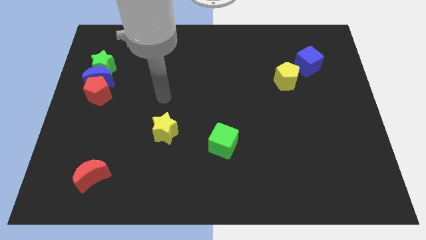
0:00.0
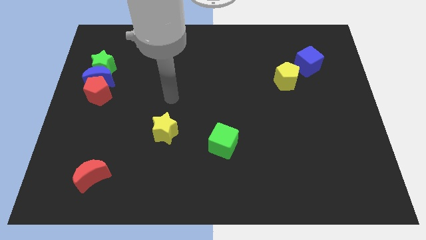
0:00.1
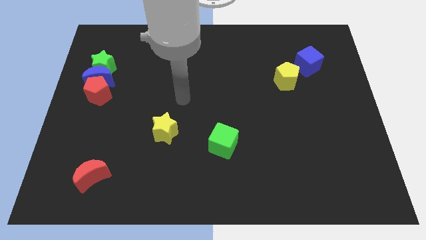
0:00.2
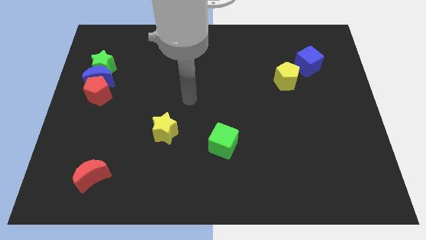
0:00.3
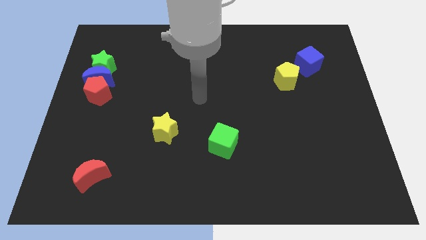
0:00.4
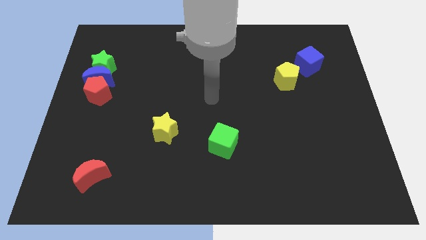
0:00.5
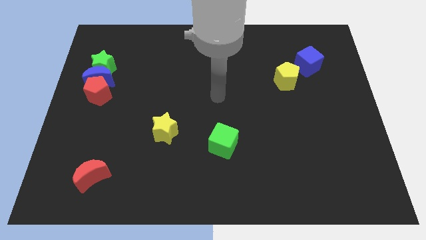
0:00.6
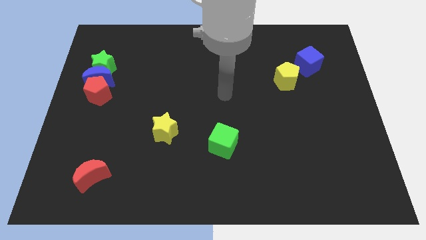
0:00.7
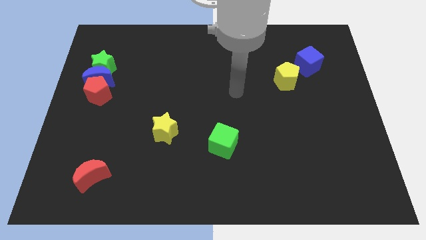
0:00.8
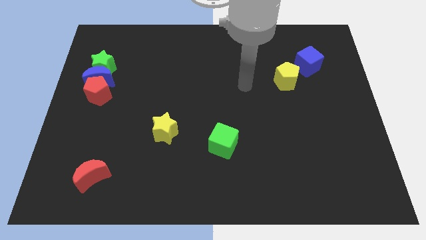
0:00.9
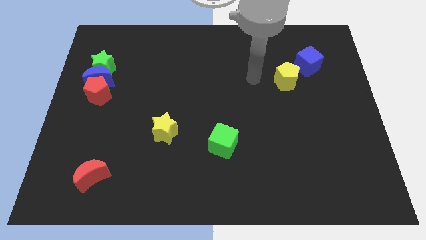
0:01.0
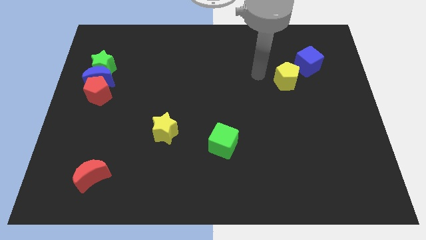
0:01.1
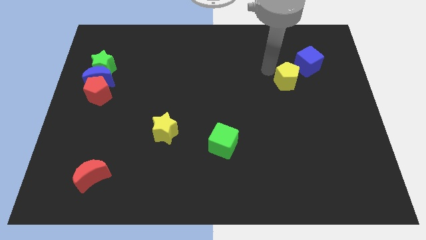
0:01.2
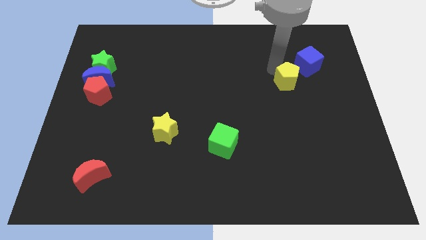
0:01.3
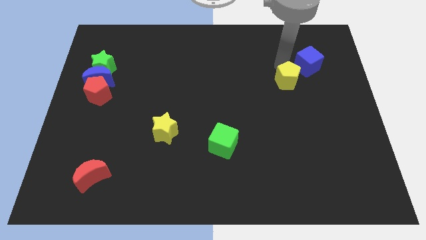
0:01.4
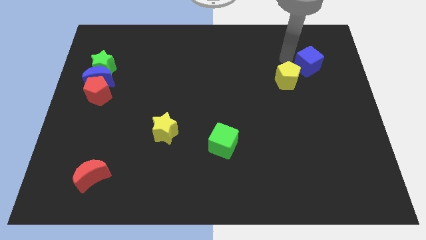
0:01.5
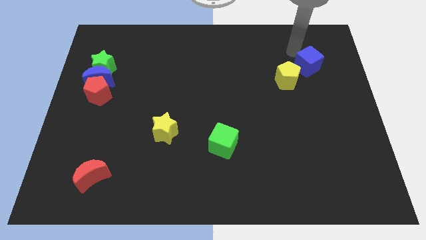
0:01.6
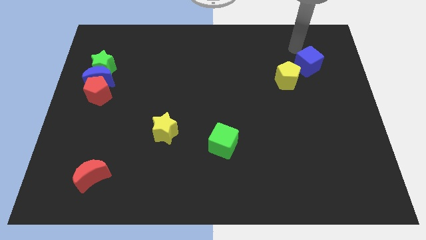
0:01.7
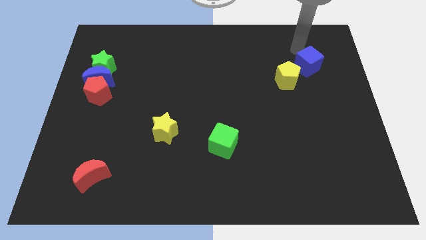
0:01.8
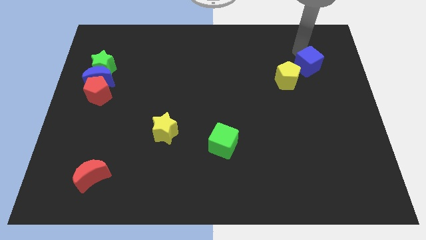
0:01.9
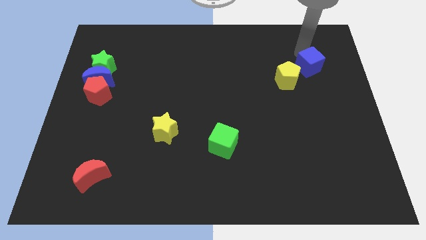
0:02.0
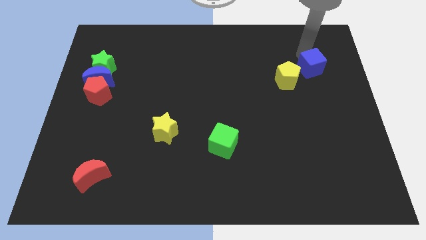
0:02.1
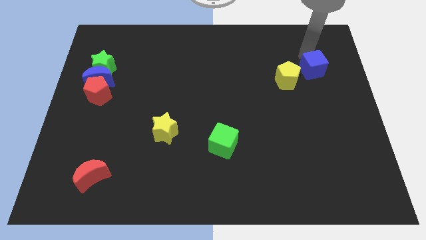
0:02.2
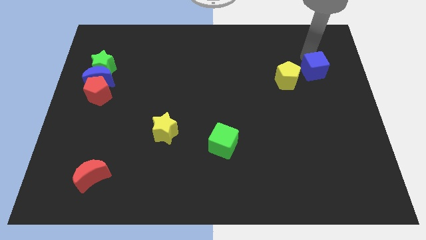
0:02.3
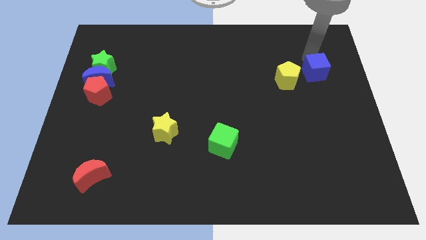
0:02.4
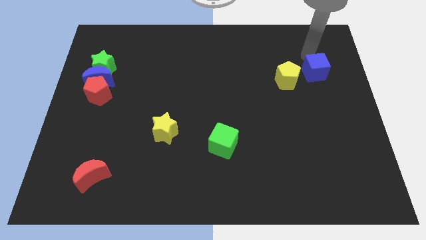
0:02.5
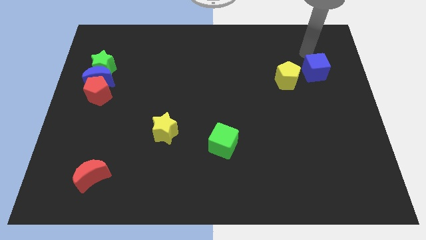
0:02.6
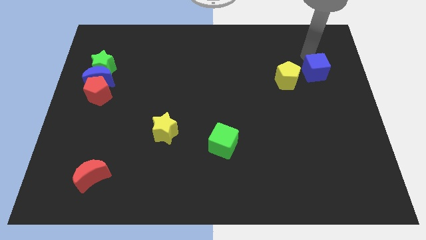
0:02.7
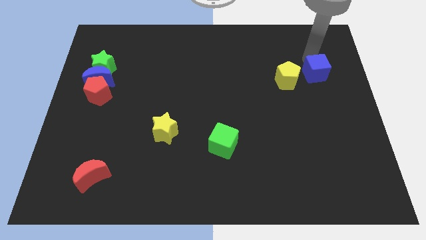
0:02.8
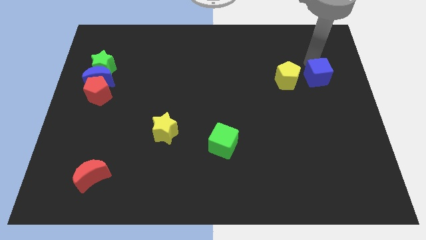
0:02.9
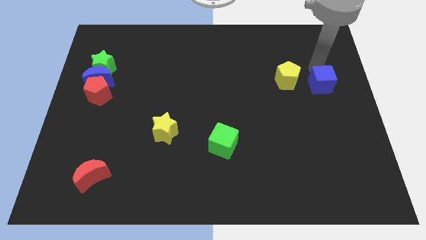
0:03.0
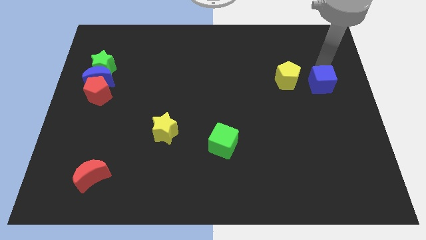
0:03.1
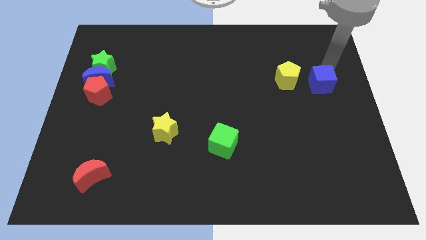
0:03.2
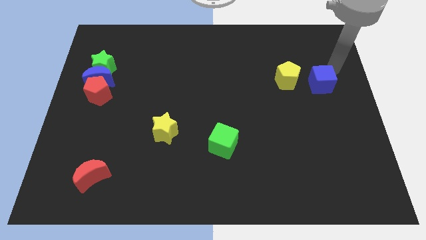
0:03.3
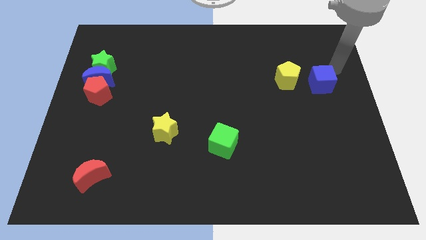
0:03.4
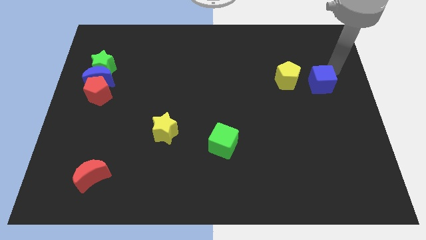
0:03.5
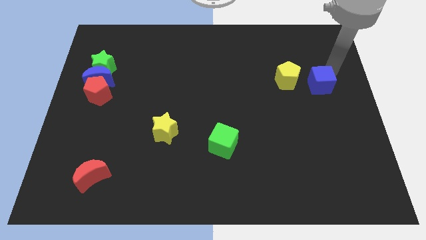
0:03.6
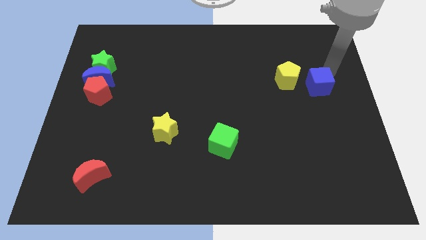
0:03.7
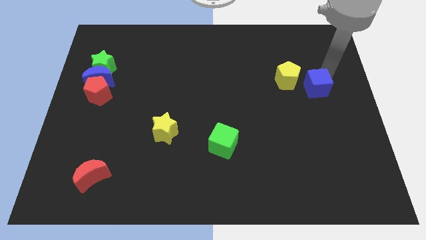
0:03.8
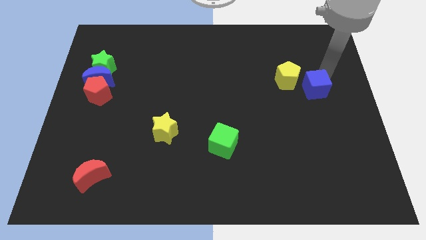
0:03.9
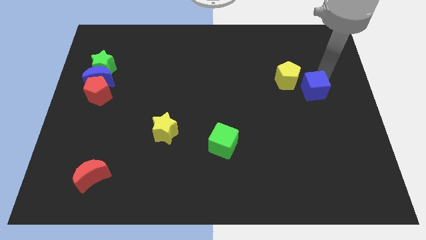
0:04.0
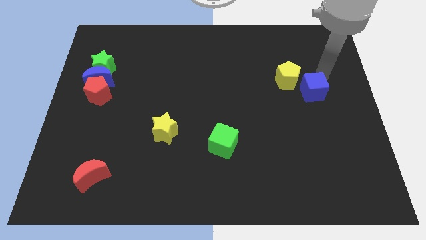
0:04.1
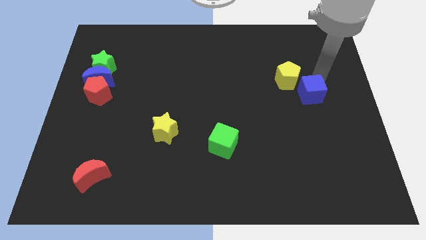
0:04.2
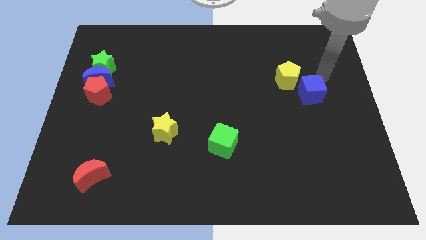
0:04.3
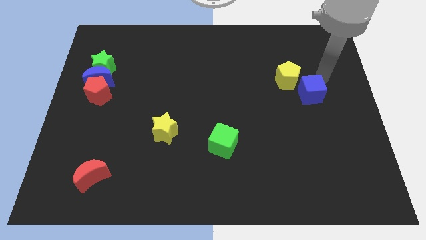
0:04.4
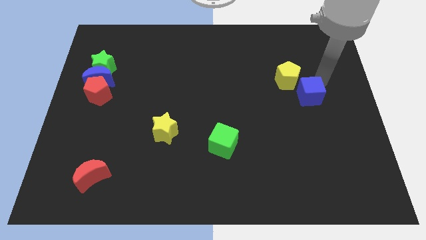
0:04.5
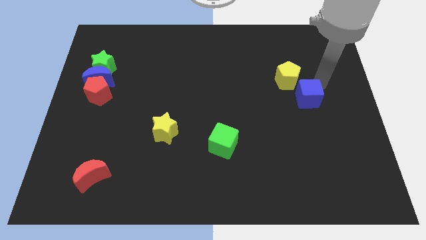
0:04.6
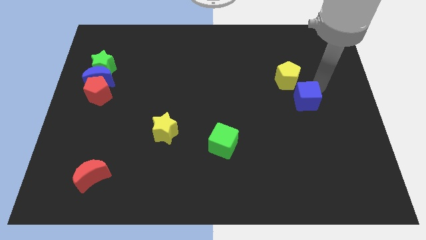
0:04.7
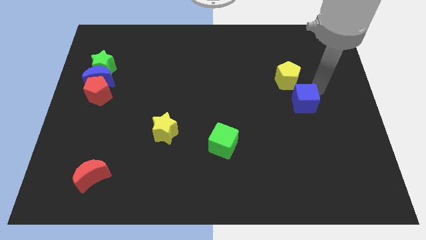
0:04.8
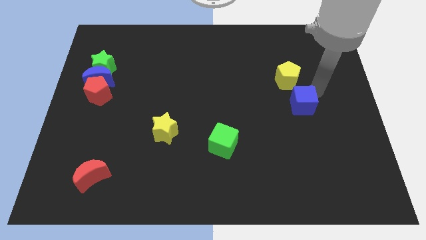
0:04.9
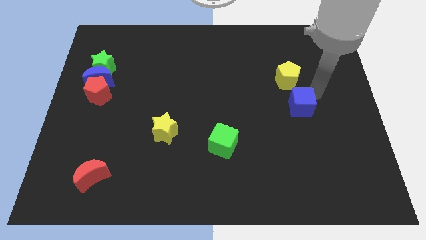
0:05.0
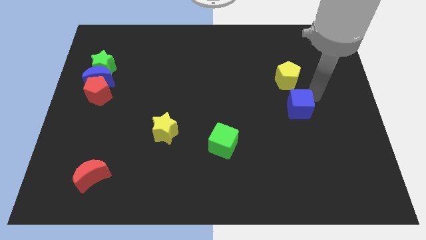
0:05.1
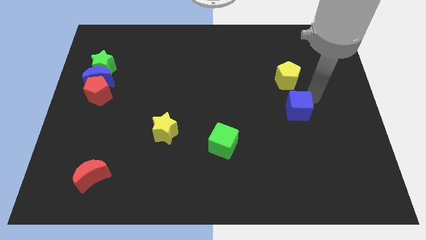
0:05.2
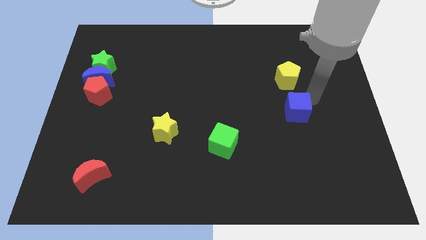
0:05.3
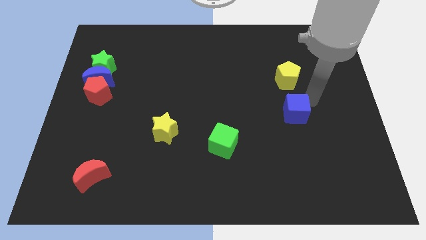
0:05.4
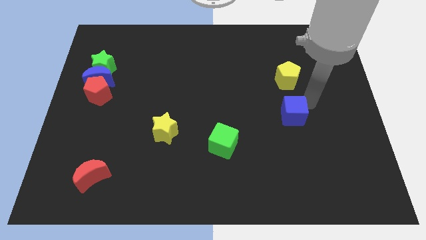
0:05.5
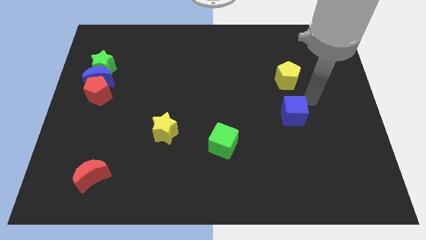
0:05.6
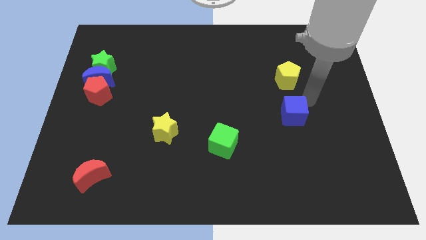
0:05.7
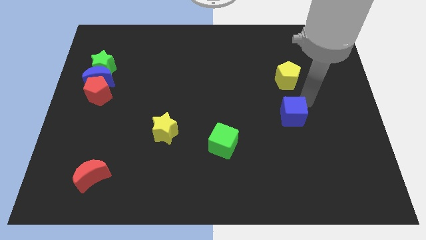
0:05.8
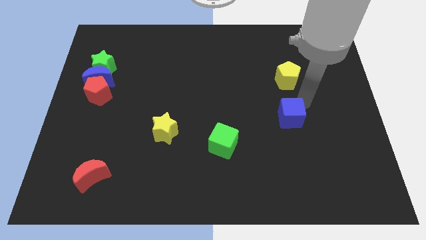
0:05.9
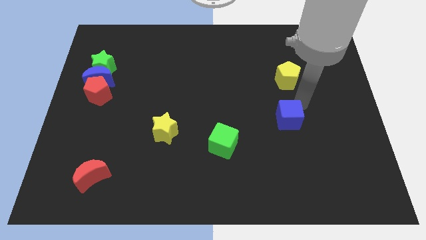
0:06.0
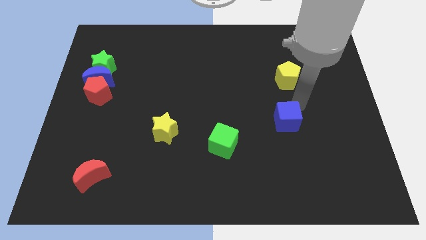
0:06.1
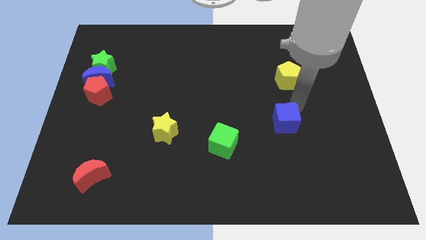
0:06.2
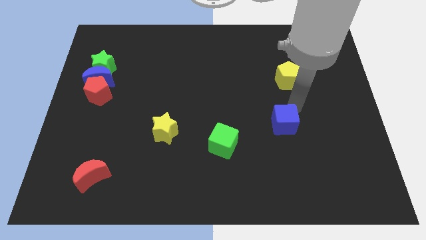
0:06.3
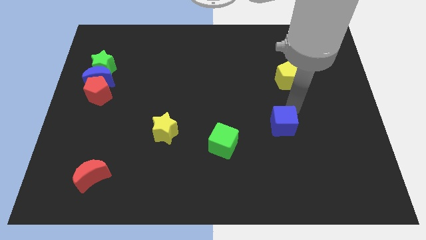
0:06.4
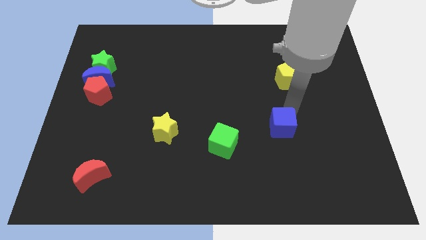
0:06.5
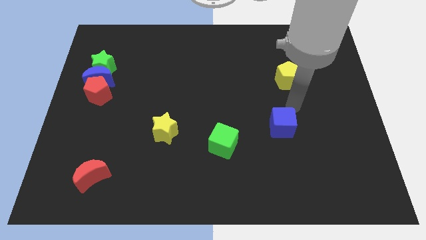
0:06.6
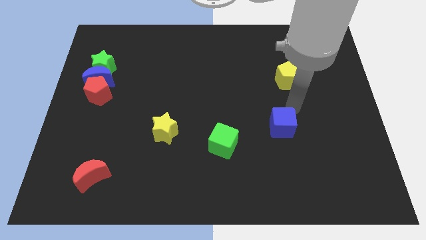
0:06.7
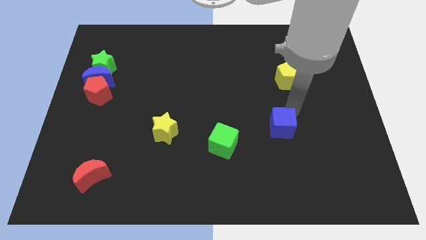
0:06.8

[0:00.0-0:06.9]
slide the blue cube just right of the green cube
